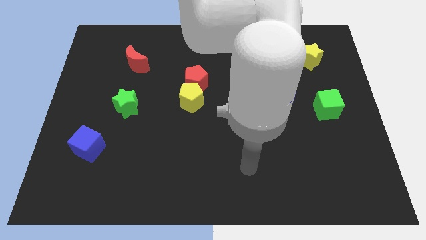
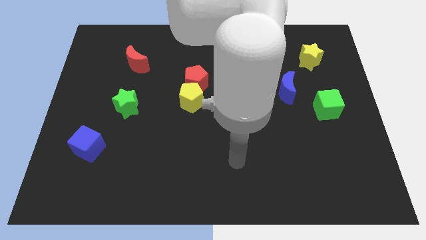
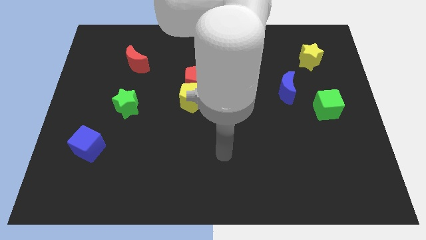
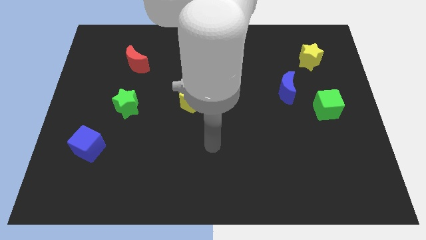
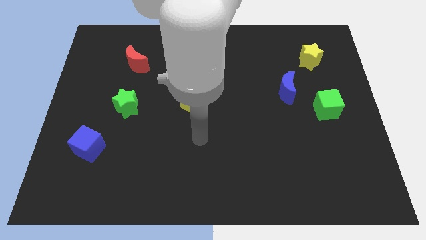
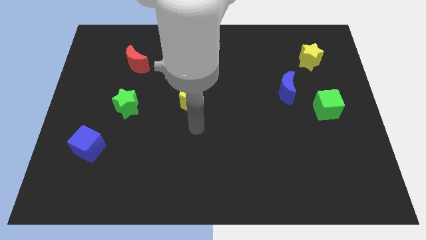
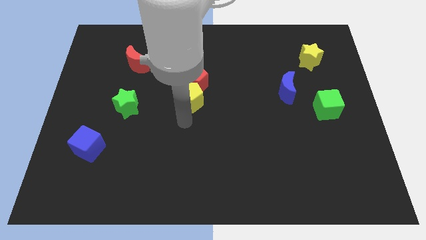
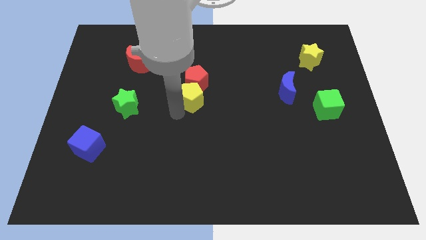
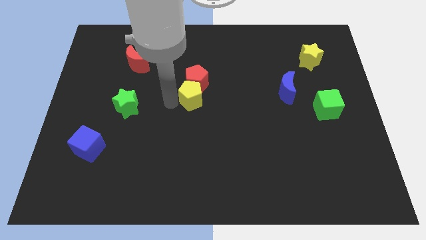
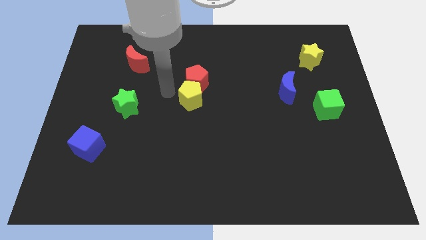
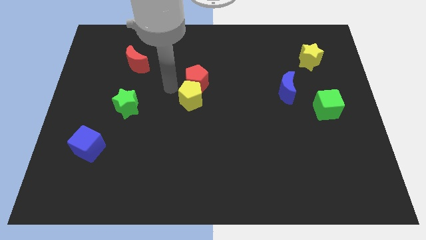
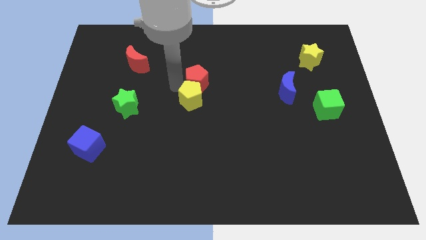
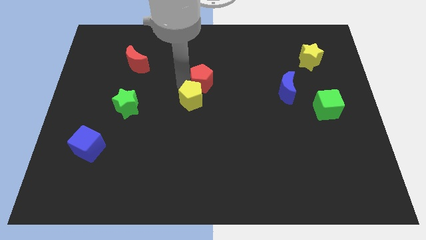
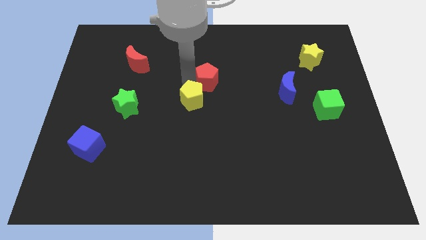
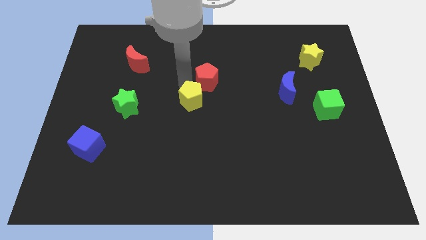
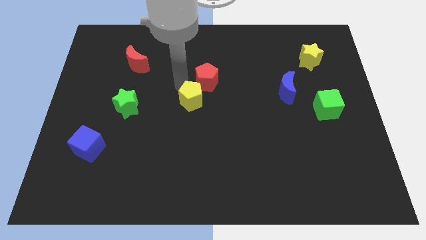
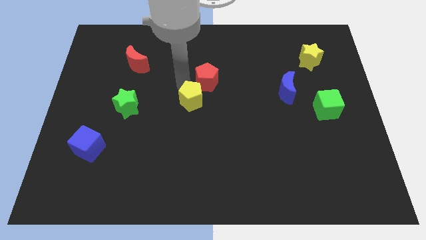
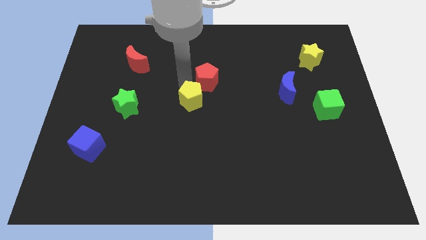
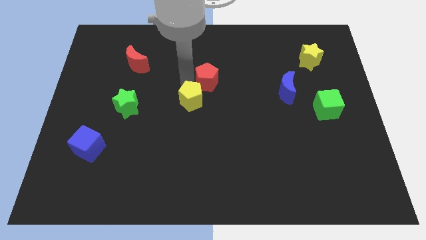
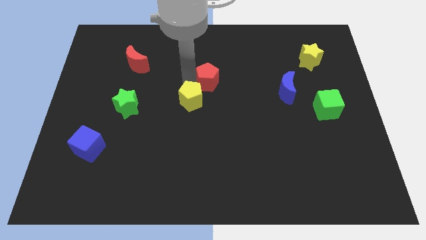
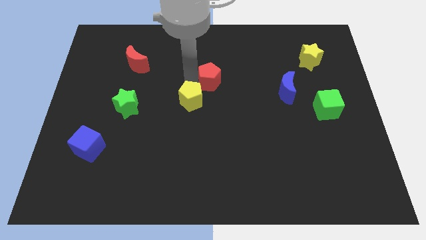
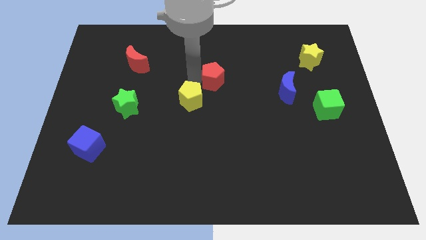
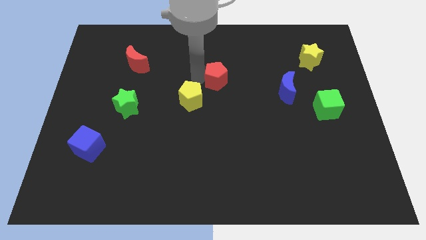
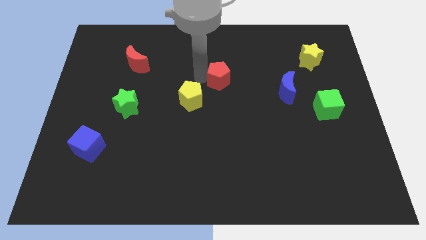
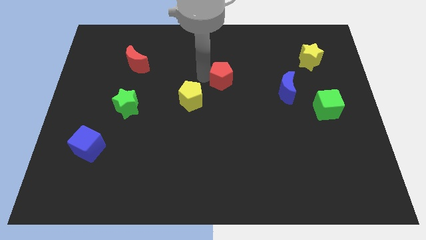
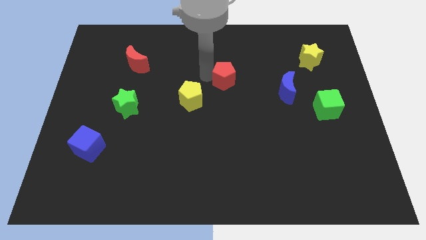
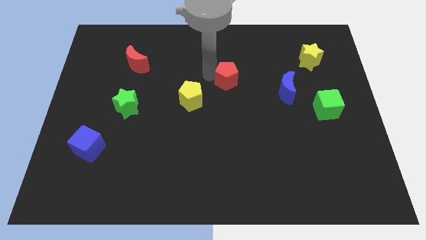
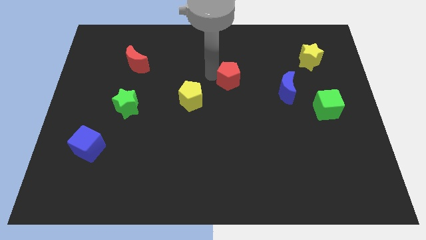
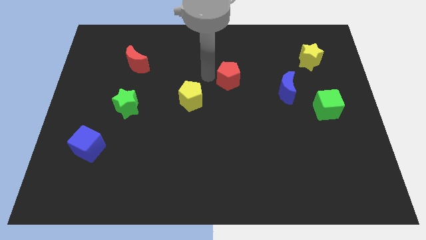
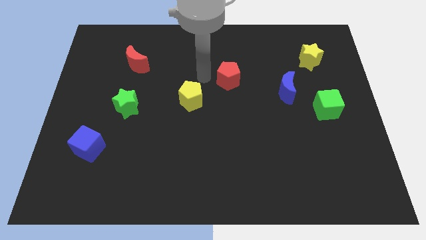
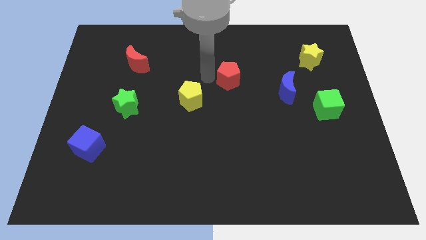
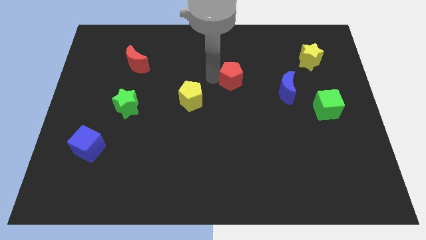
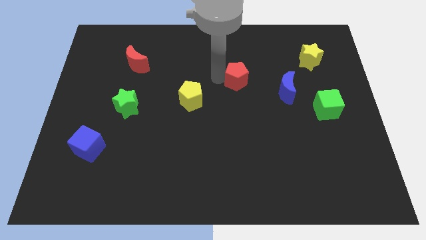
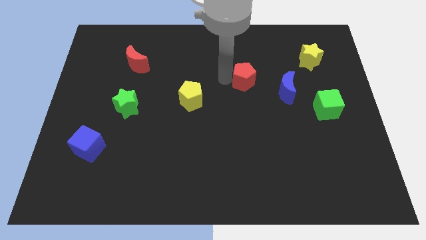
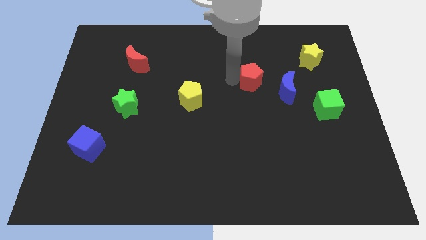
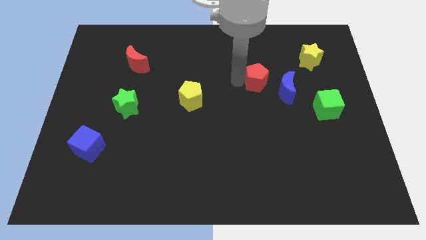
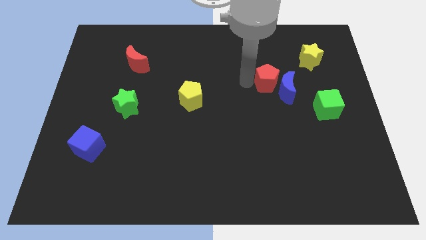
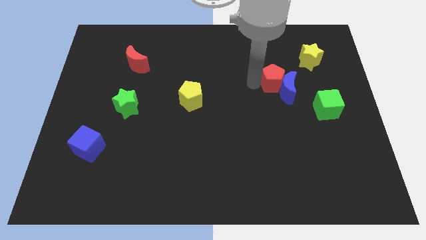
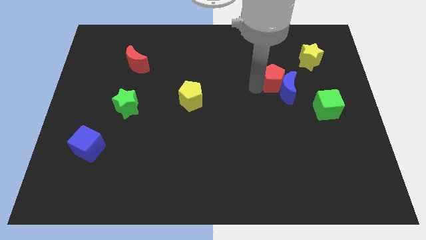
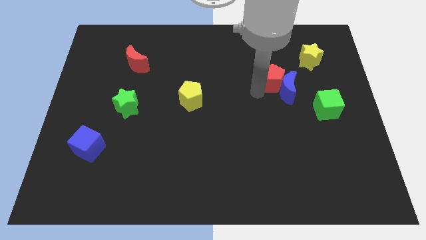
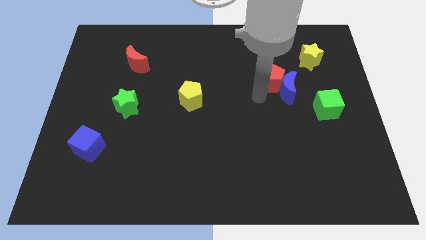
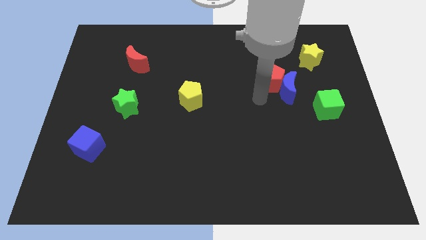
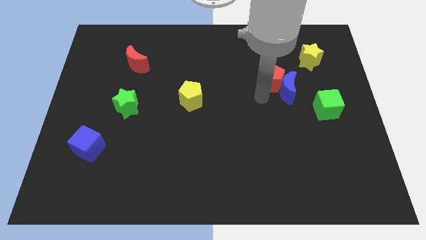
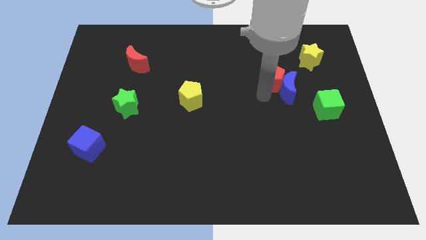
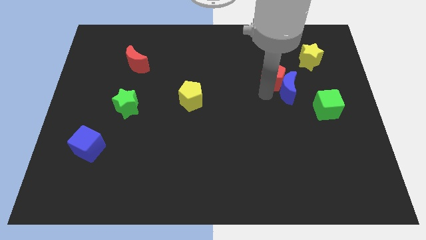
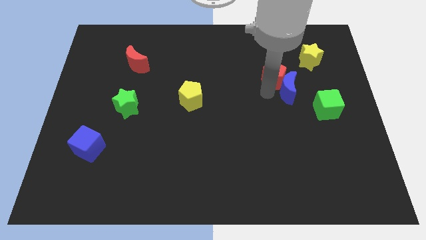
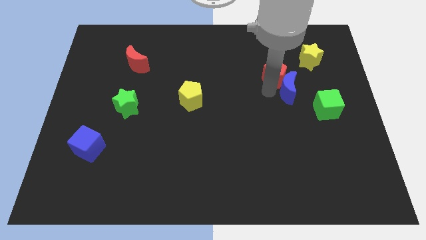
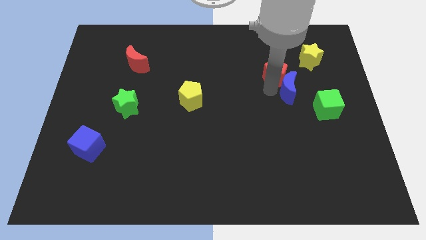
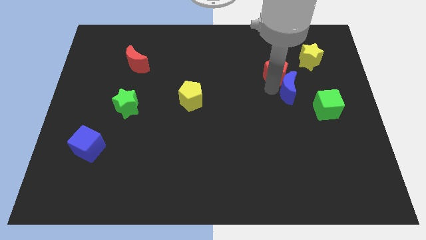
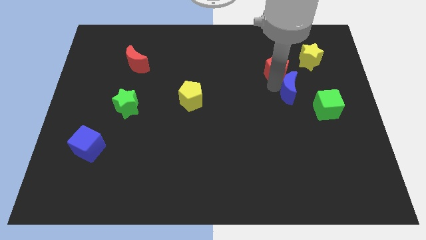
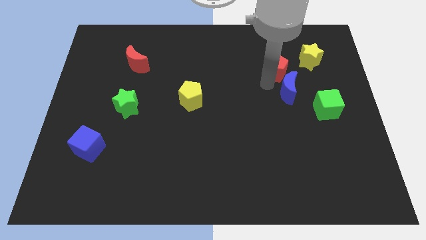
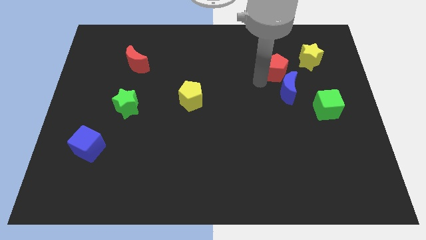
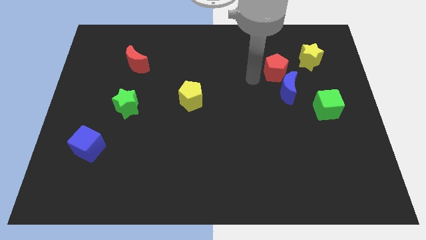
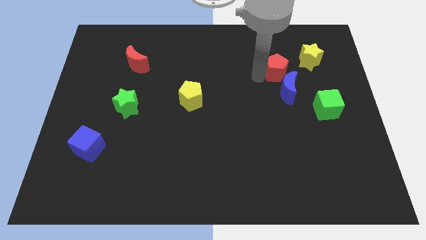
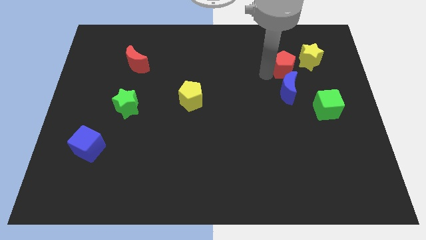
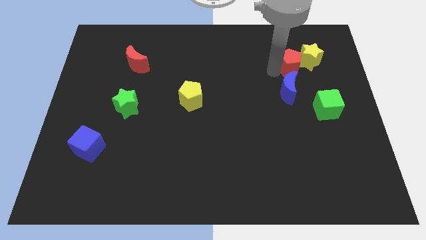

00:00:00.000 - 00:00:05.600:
put the red pentagon next to the yellow star

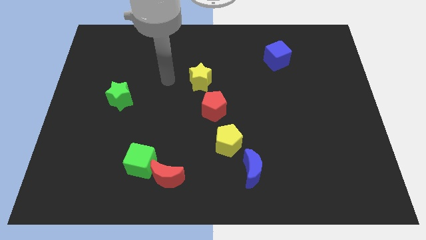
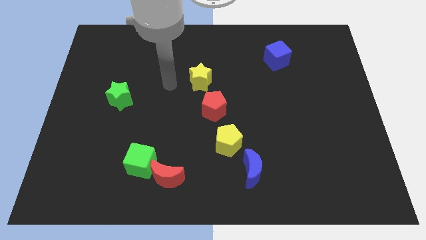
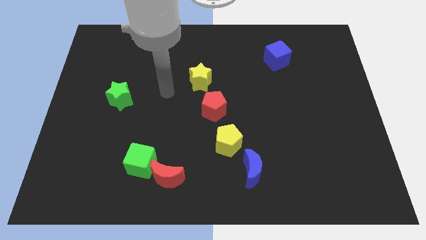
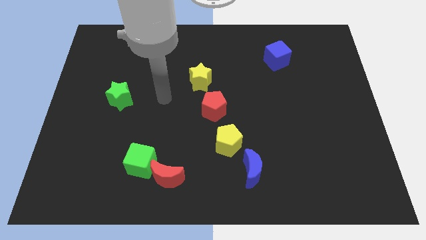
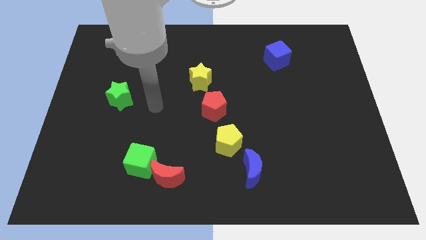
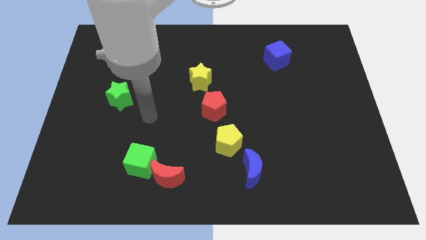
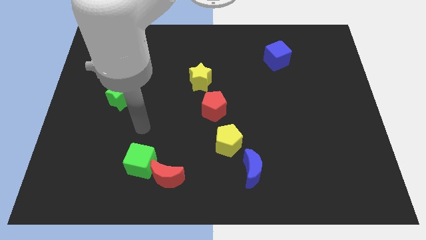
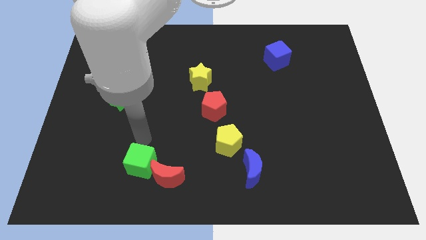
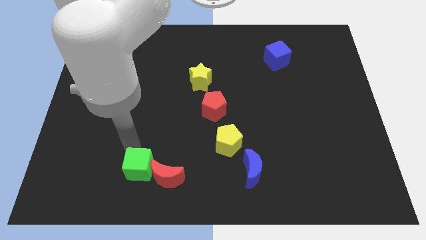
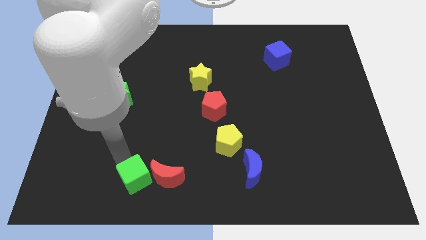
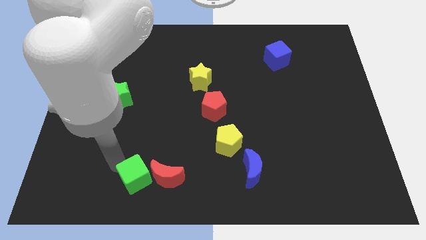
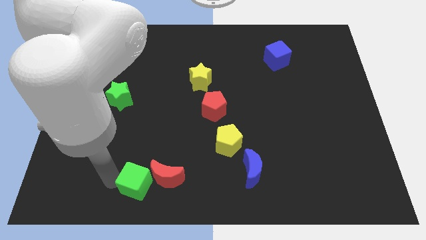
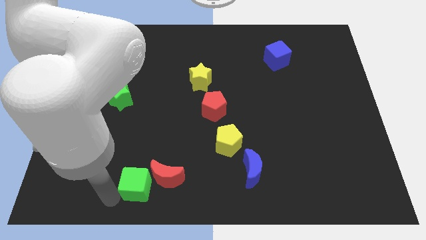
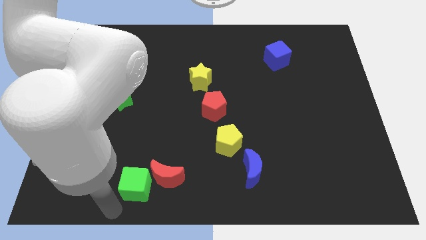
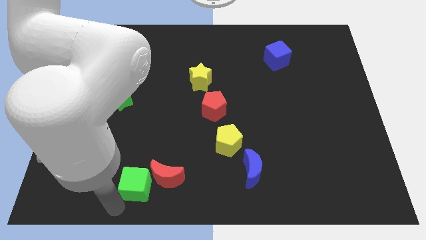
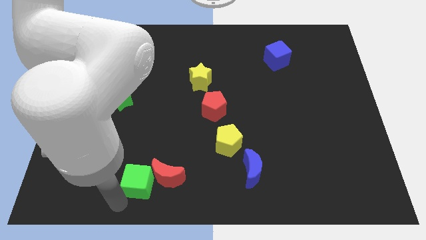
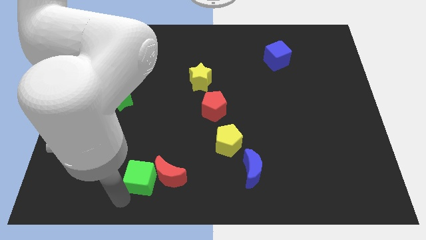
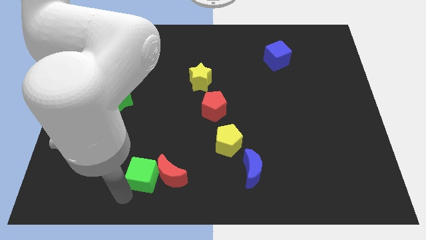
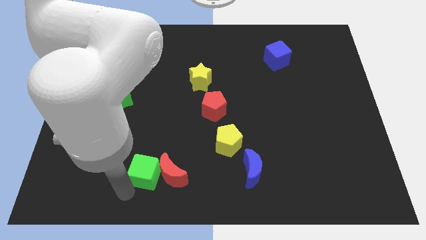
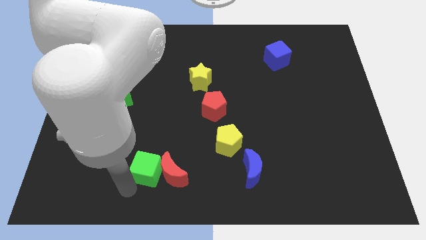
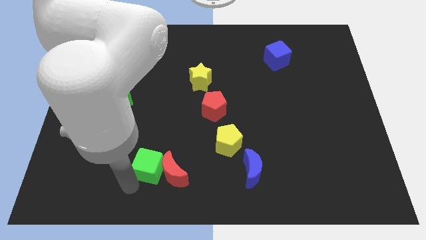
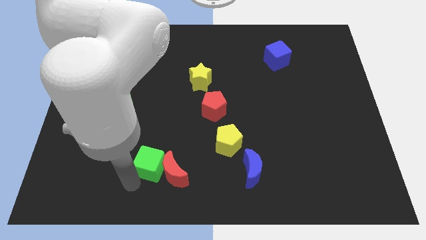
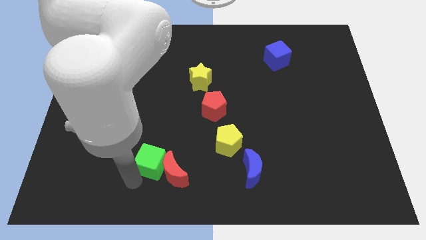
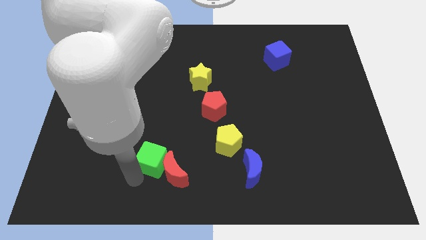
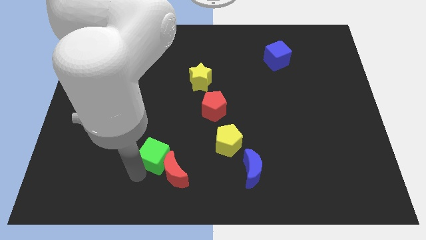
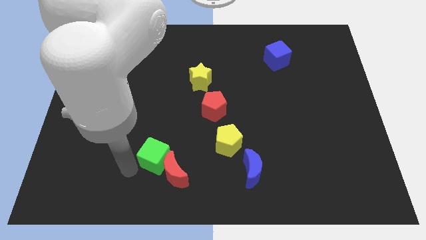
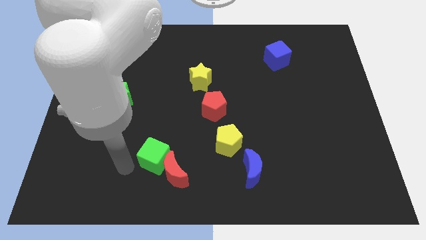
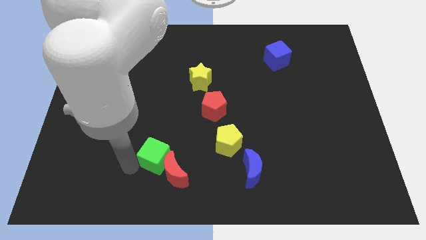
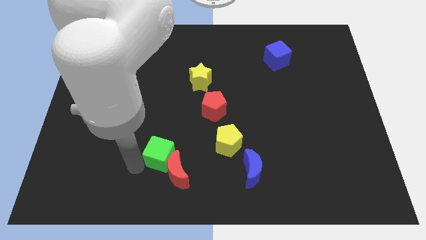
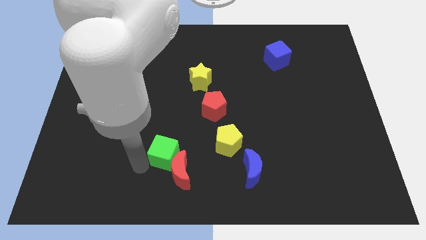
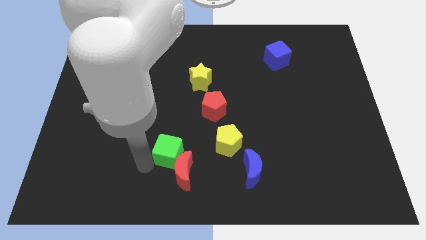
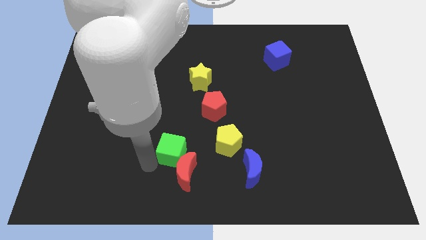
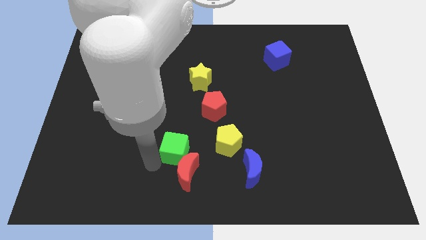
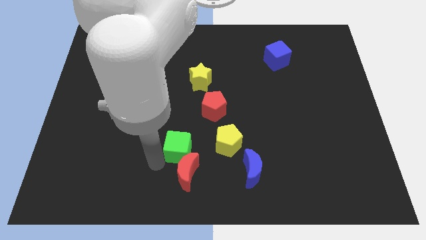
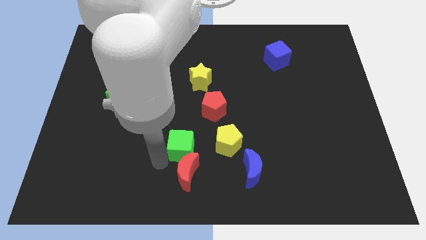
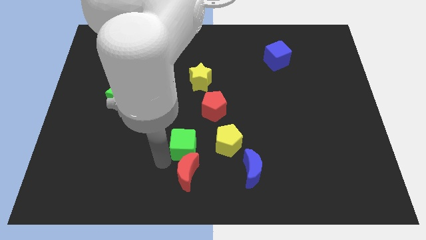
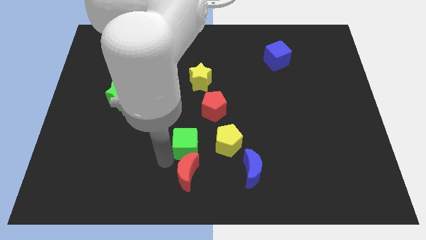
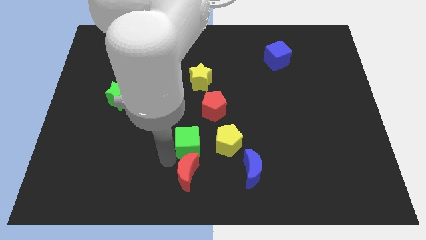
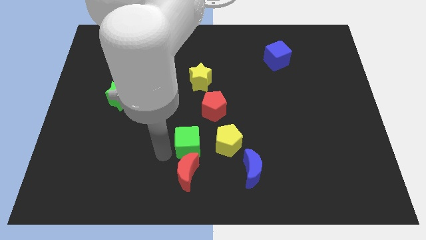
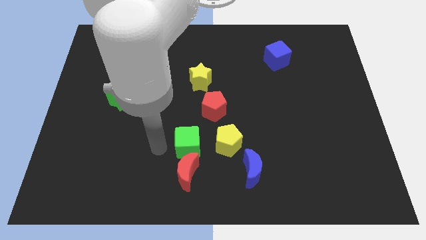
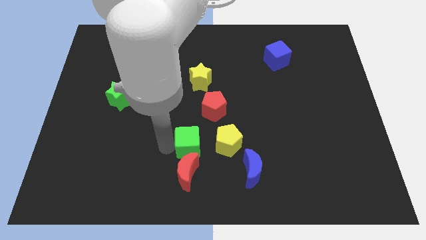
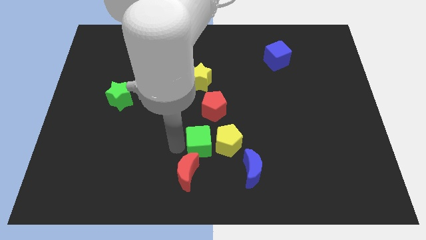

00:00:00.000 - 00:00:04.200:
slide the green cube close to the yellow pentagon
